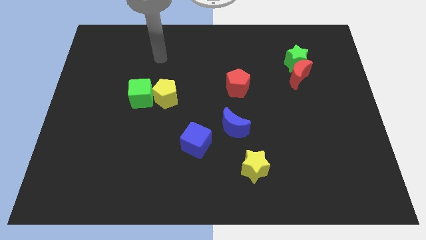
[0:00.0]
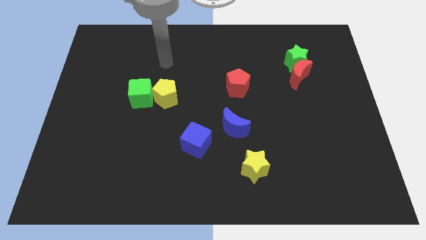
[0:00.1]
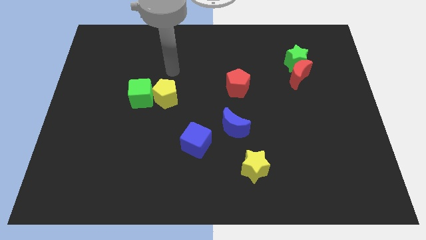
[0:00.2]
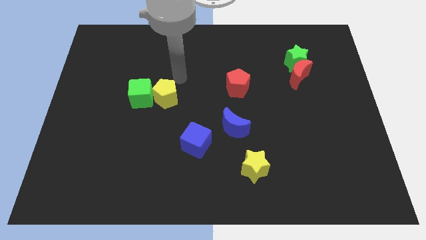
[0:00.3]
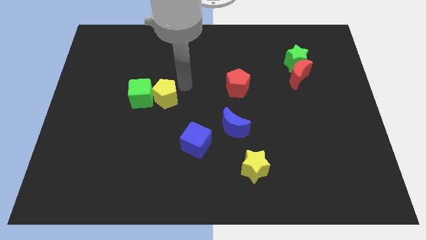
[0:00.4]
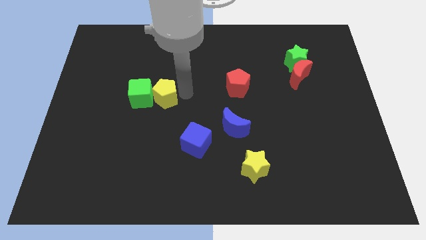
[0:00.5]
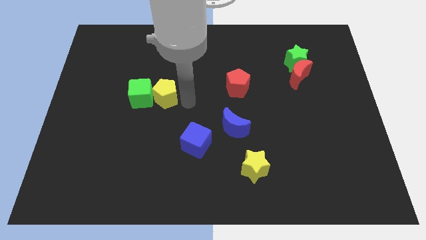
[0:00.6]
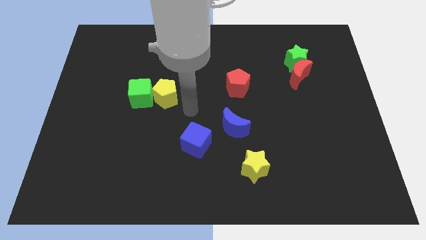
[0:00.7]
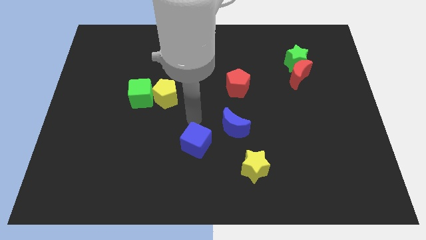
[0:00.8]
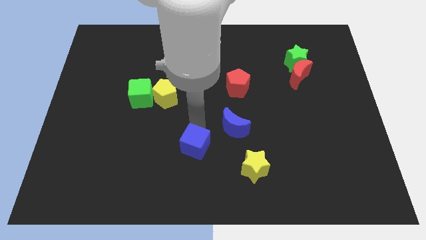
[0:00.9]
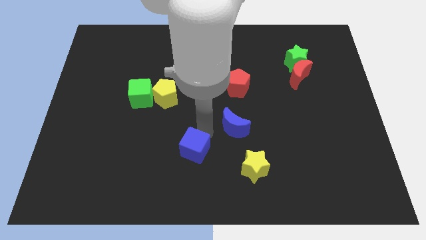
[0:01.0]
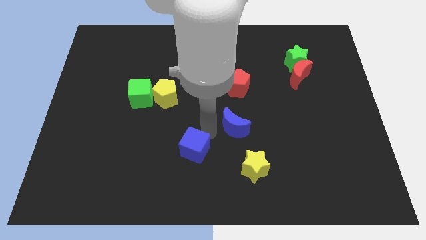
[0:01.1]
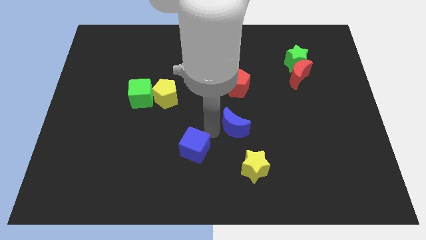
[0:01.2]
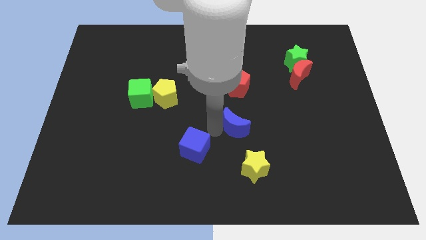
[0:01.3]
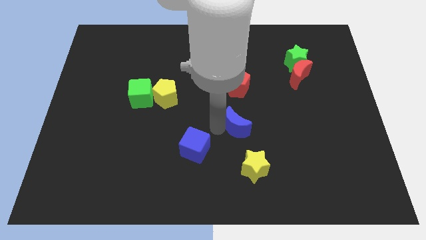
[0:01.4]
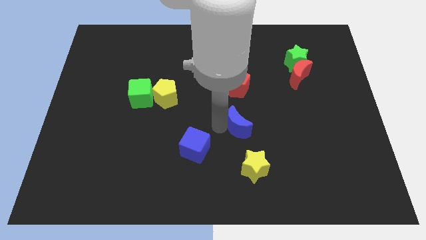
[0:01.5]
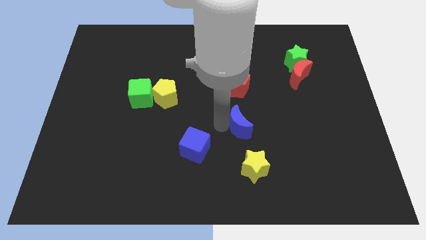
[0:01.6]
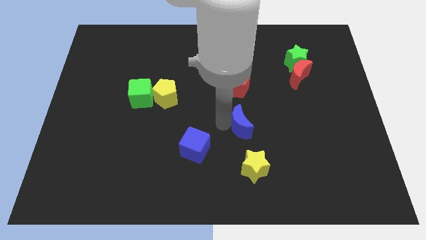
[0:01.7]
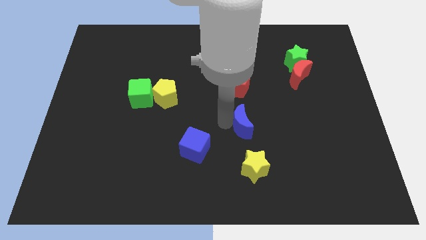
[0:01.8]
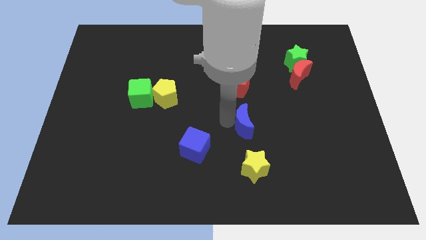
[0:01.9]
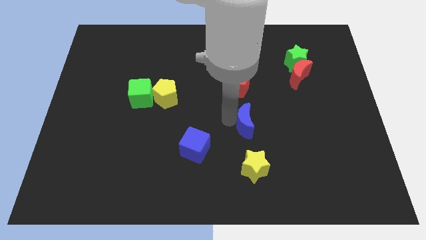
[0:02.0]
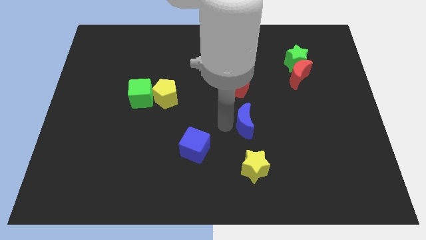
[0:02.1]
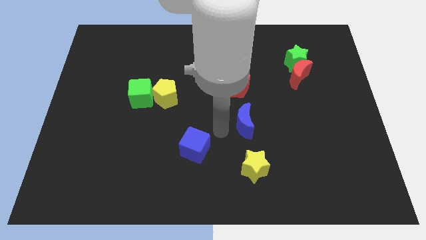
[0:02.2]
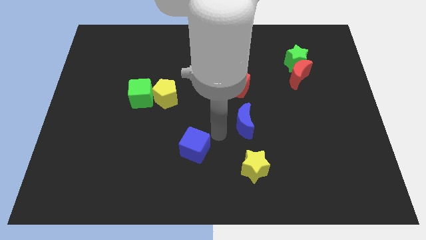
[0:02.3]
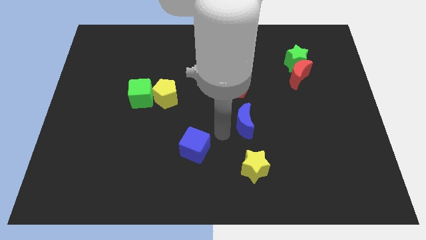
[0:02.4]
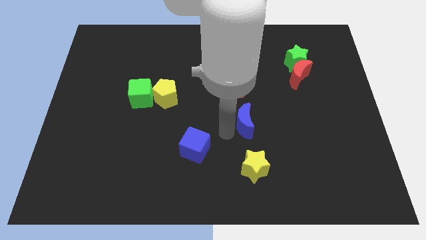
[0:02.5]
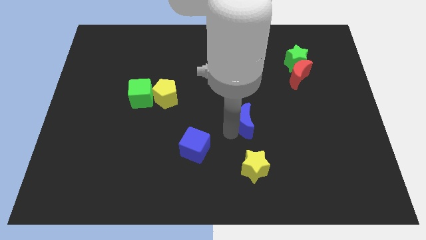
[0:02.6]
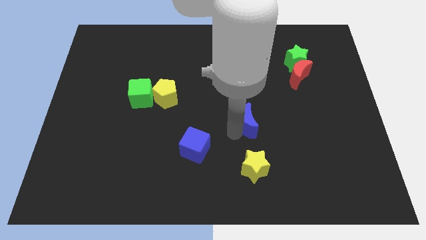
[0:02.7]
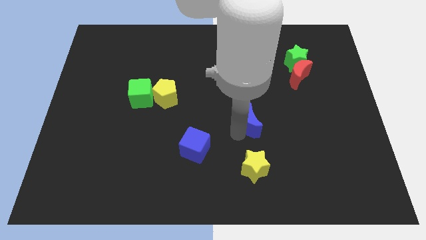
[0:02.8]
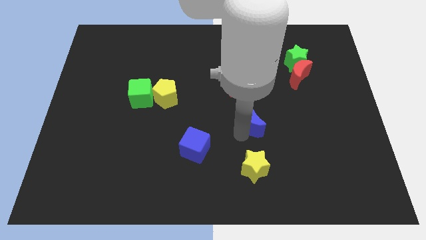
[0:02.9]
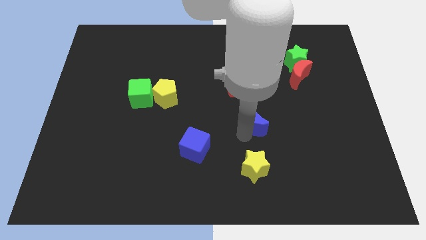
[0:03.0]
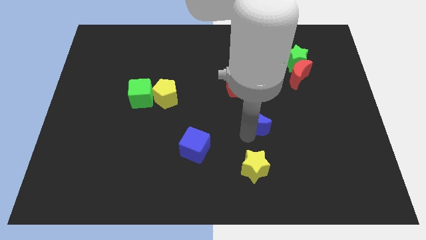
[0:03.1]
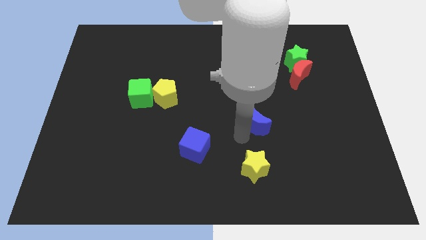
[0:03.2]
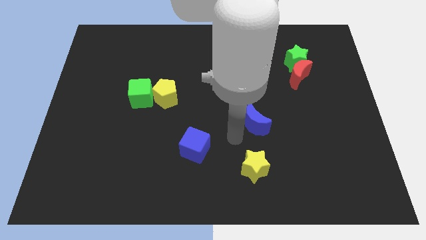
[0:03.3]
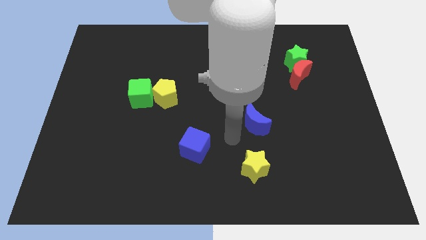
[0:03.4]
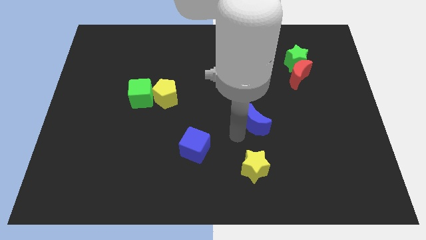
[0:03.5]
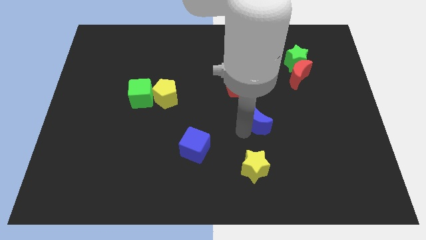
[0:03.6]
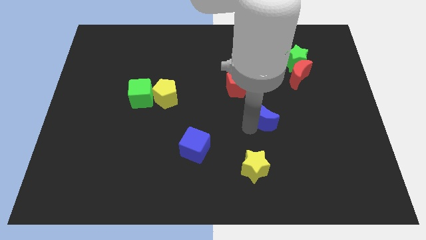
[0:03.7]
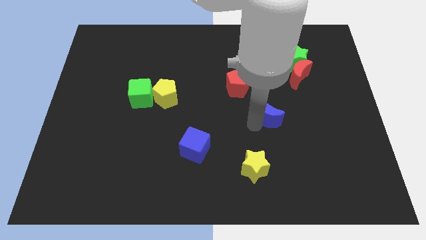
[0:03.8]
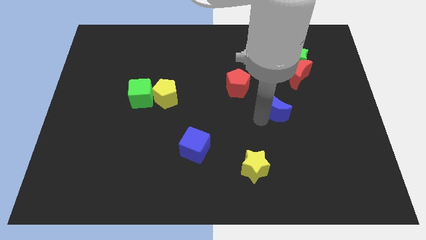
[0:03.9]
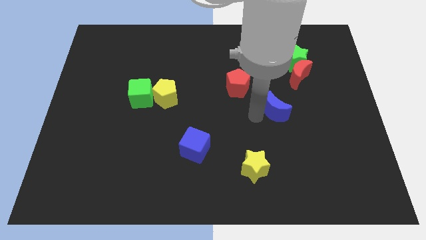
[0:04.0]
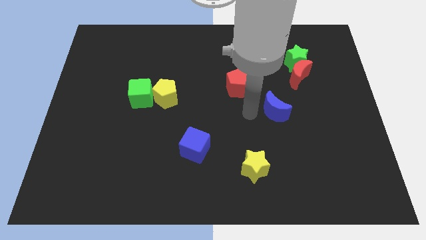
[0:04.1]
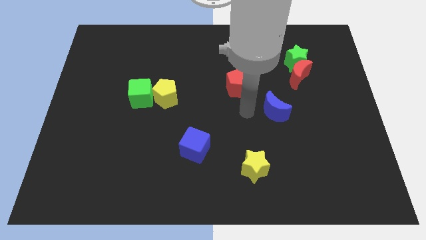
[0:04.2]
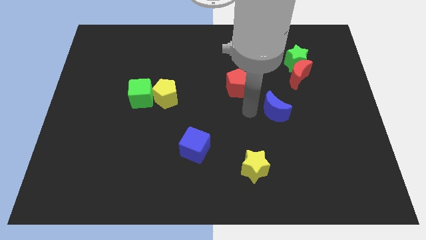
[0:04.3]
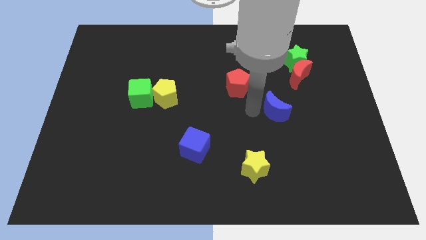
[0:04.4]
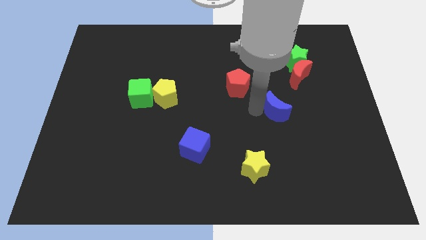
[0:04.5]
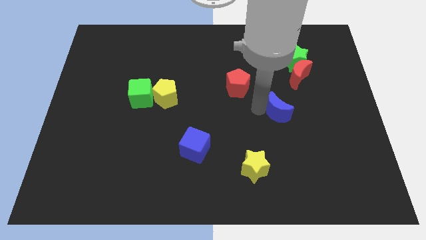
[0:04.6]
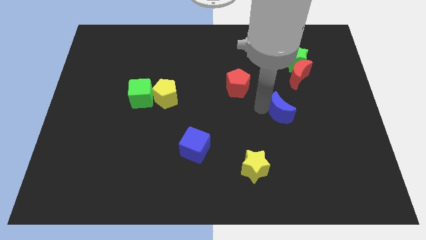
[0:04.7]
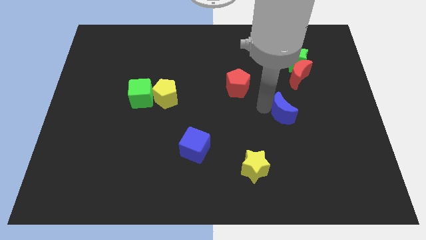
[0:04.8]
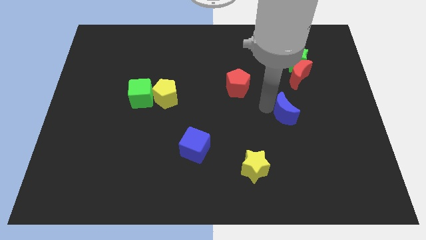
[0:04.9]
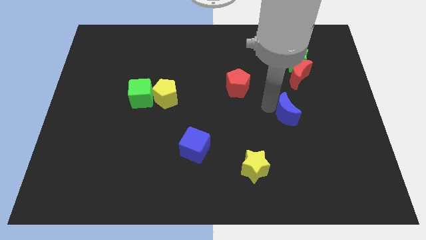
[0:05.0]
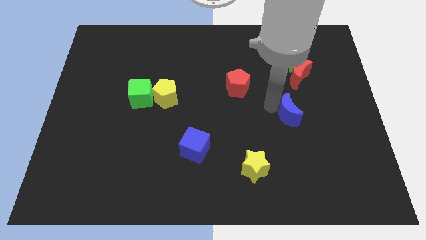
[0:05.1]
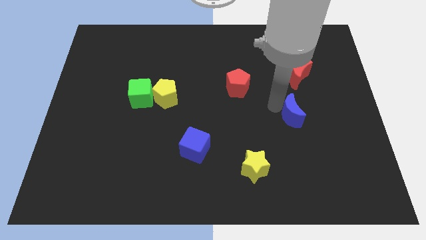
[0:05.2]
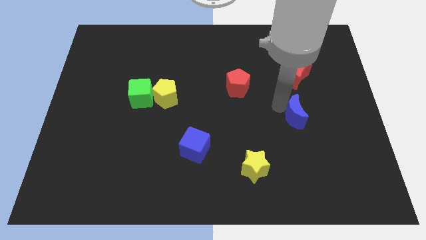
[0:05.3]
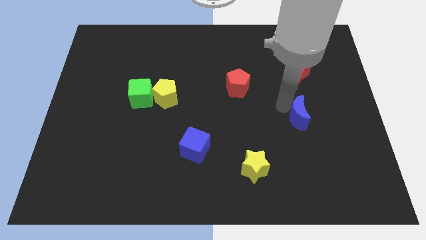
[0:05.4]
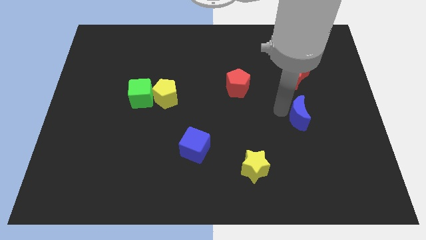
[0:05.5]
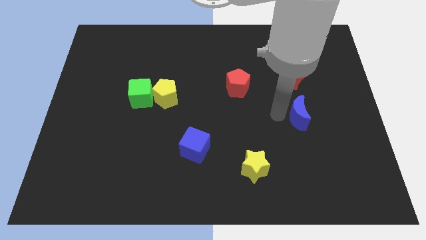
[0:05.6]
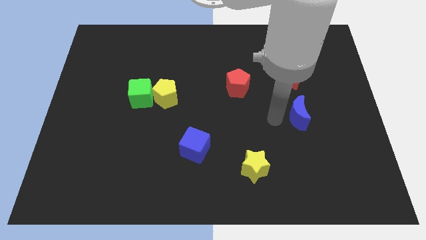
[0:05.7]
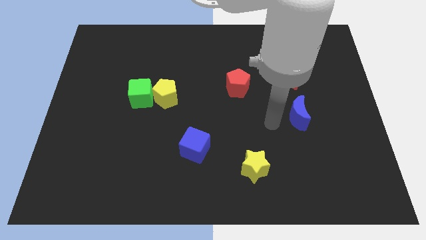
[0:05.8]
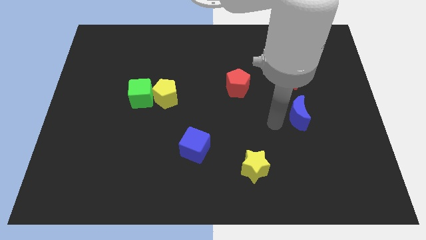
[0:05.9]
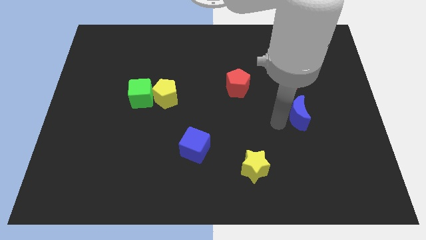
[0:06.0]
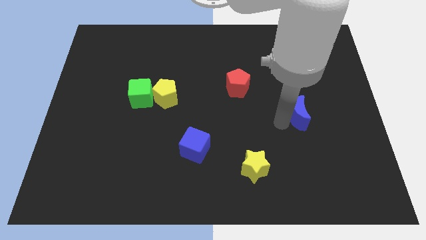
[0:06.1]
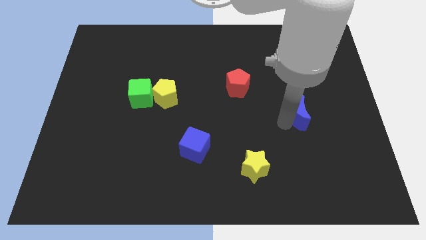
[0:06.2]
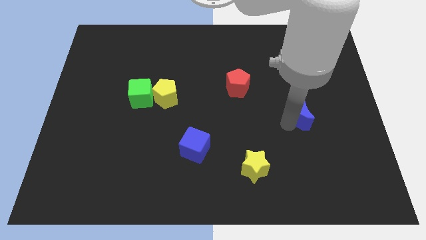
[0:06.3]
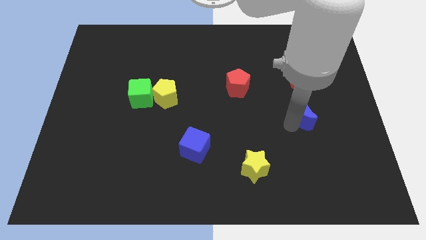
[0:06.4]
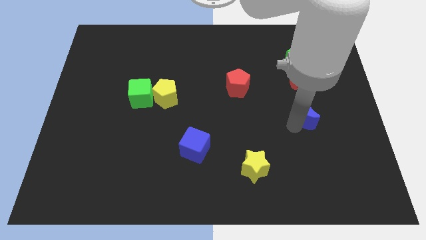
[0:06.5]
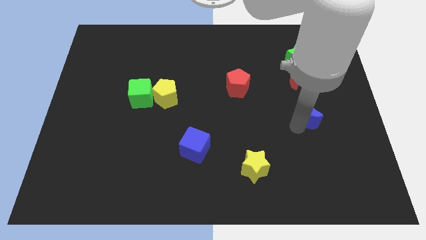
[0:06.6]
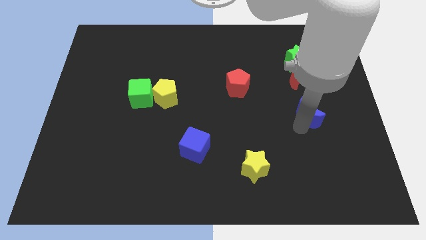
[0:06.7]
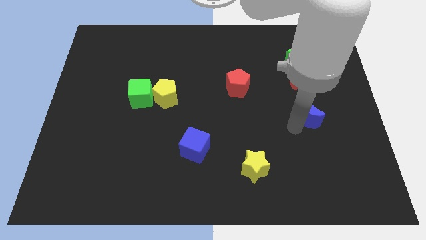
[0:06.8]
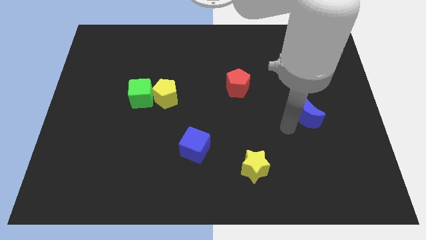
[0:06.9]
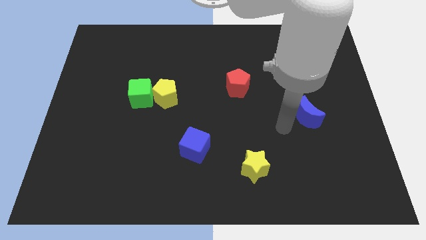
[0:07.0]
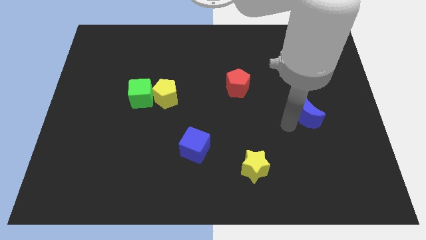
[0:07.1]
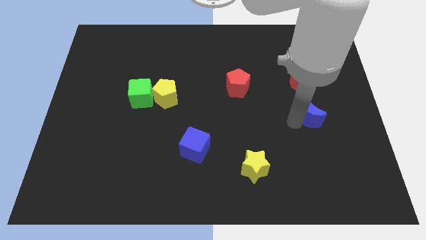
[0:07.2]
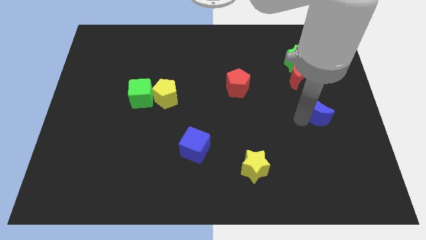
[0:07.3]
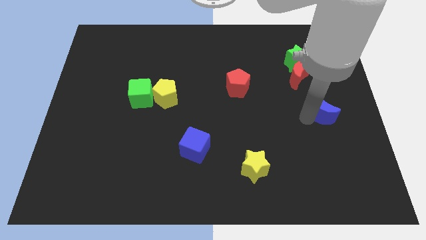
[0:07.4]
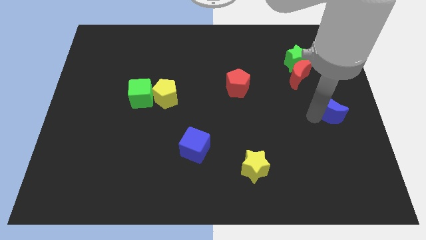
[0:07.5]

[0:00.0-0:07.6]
slide the blue moon to the center right
